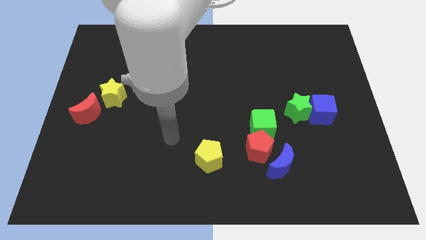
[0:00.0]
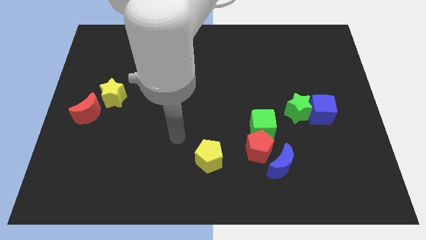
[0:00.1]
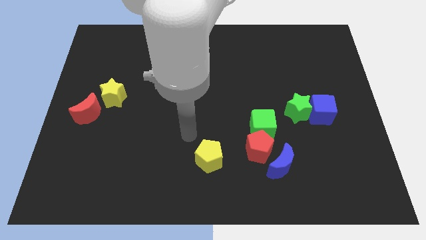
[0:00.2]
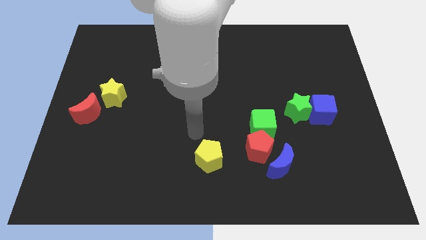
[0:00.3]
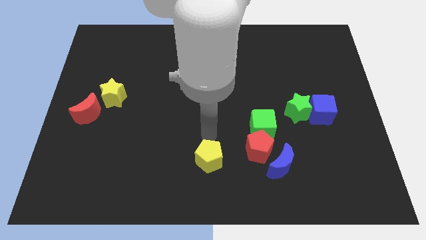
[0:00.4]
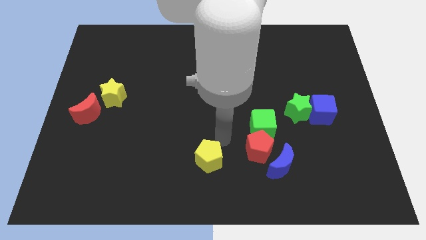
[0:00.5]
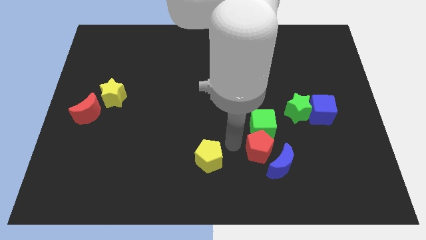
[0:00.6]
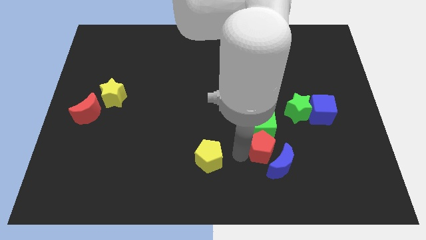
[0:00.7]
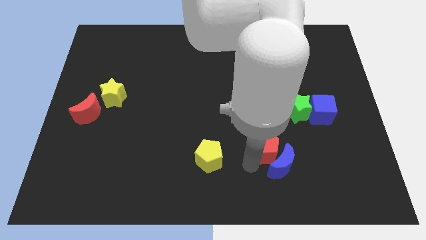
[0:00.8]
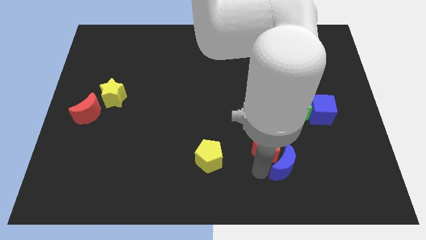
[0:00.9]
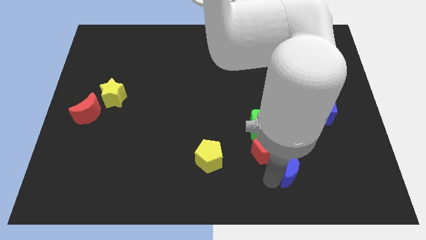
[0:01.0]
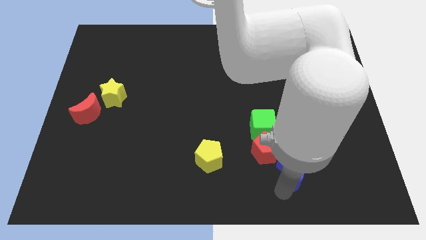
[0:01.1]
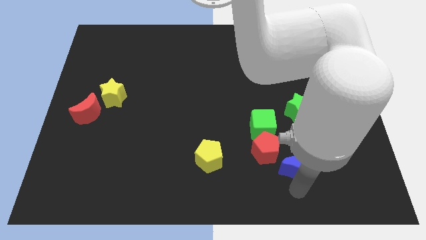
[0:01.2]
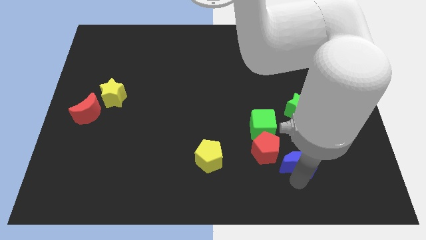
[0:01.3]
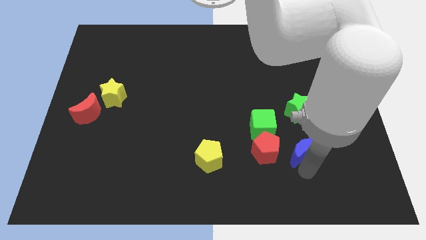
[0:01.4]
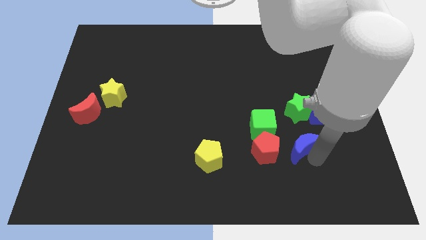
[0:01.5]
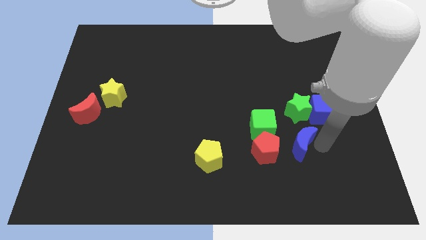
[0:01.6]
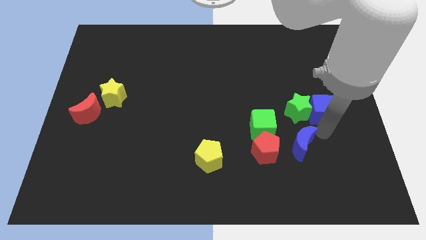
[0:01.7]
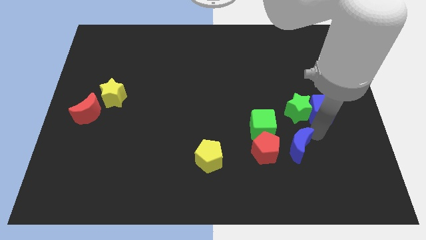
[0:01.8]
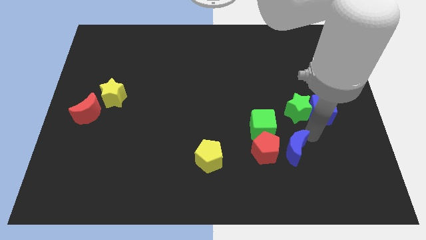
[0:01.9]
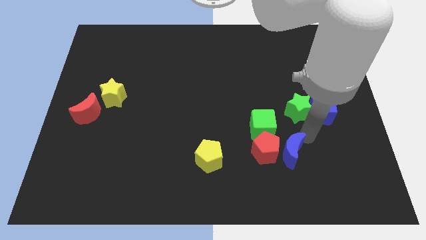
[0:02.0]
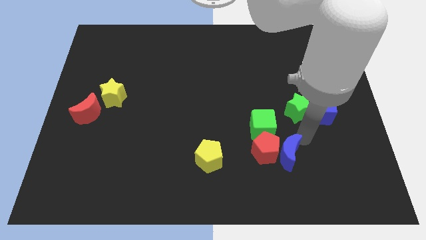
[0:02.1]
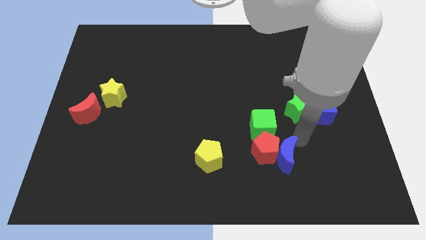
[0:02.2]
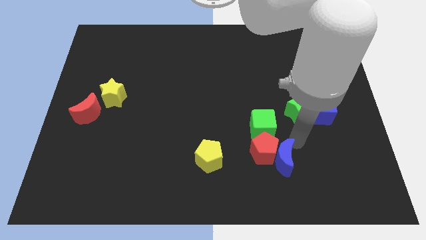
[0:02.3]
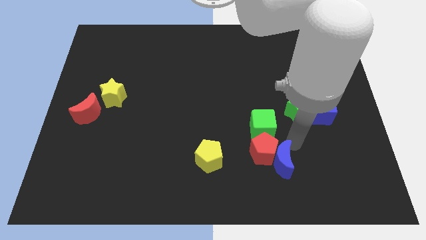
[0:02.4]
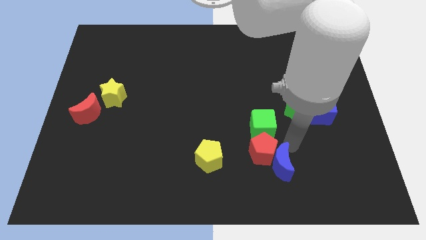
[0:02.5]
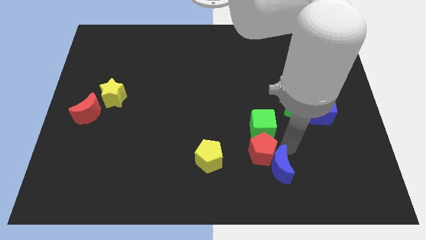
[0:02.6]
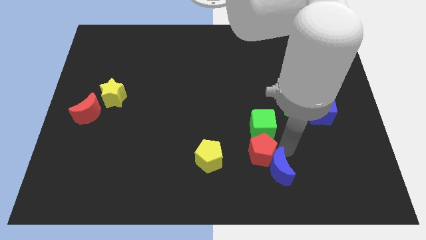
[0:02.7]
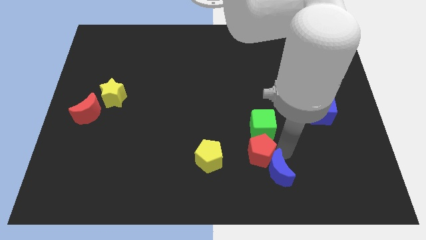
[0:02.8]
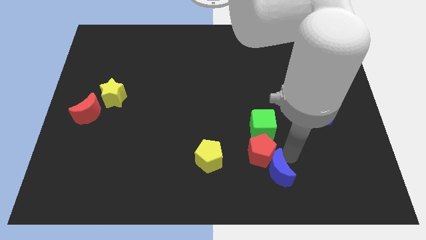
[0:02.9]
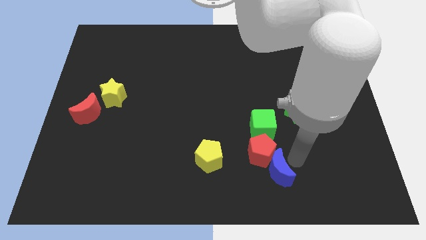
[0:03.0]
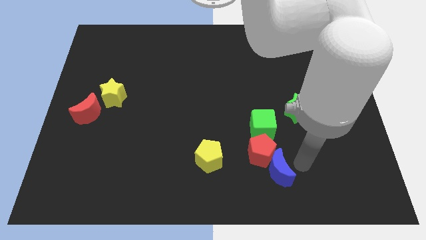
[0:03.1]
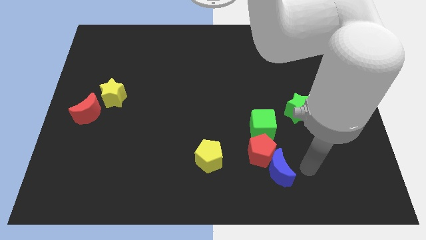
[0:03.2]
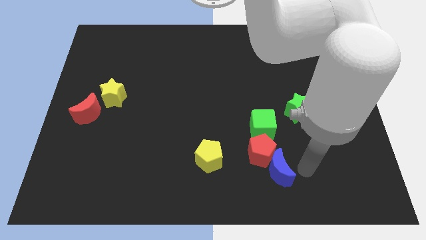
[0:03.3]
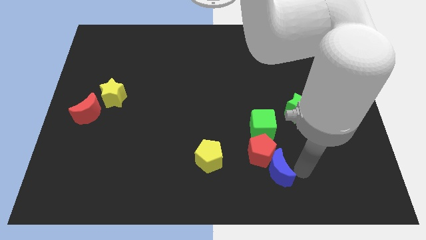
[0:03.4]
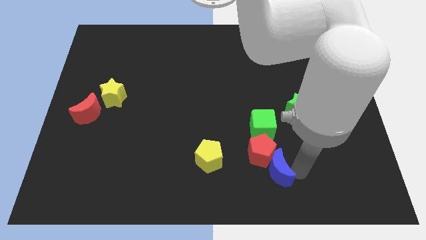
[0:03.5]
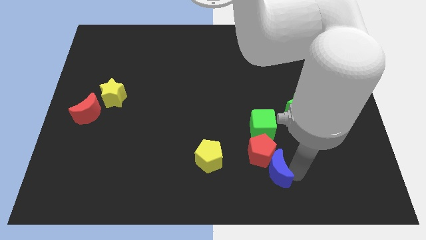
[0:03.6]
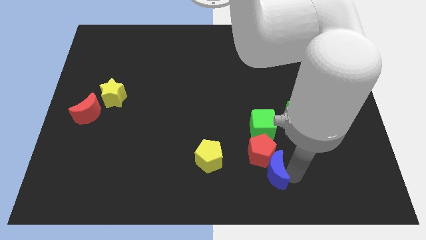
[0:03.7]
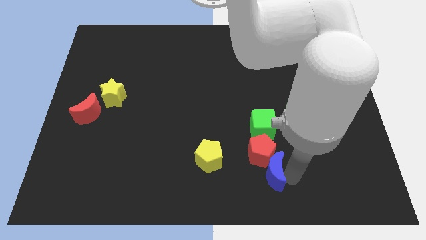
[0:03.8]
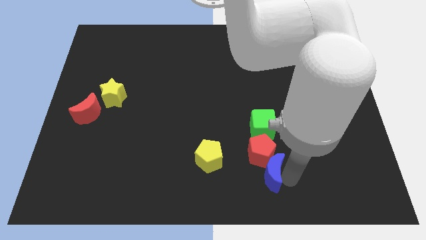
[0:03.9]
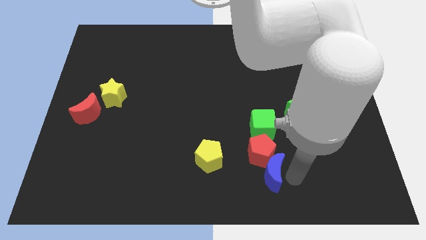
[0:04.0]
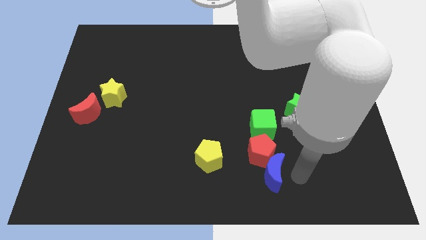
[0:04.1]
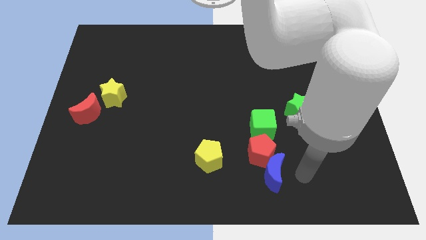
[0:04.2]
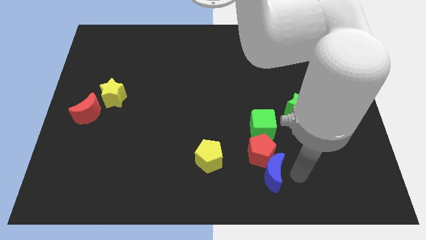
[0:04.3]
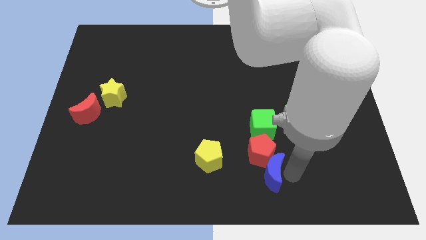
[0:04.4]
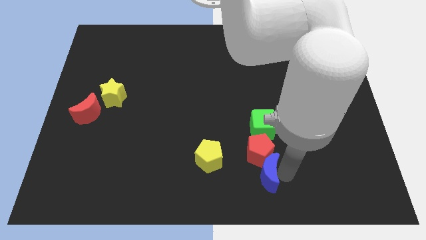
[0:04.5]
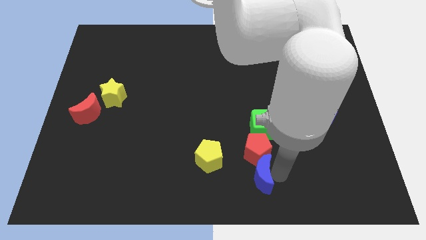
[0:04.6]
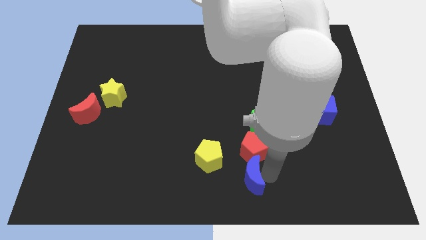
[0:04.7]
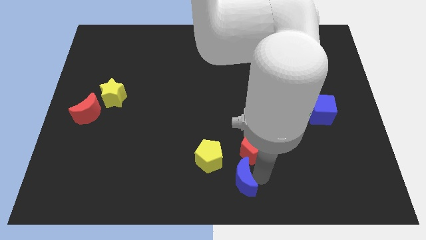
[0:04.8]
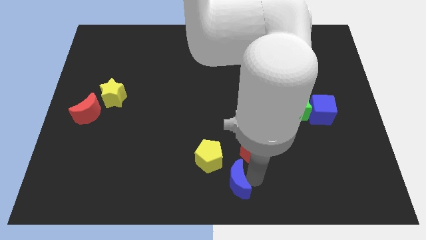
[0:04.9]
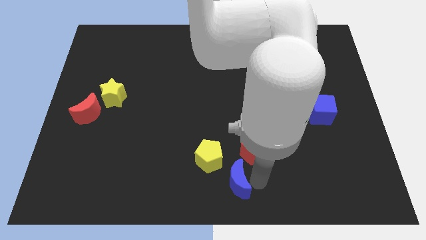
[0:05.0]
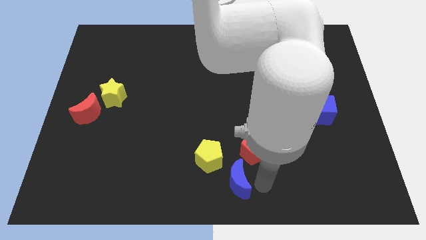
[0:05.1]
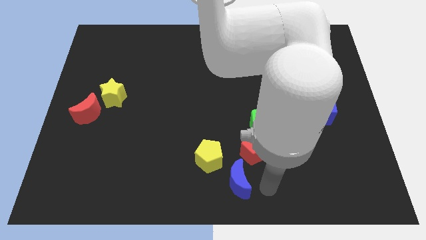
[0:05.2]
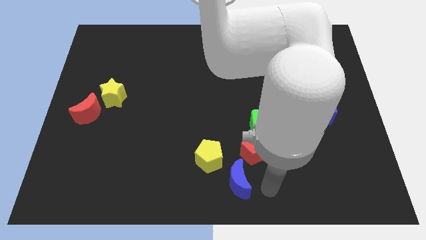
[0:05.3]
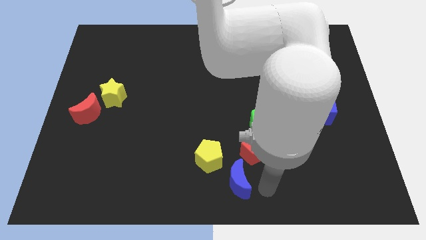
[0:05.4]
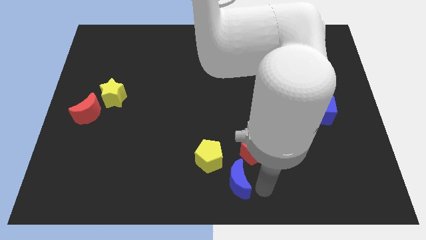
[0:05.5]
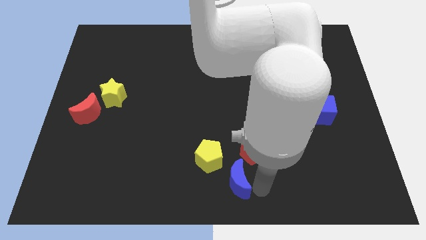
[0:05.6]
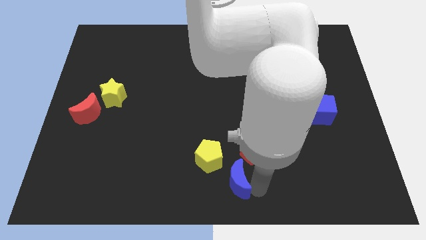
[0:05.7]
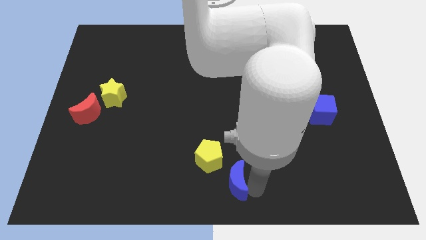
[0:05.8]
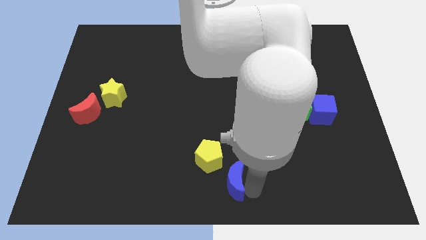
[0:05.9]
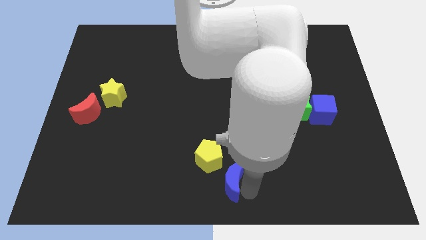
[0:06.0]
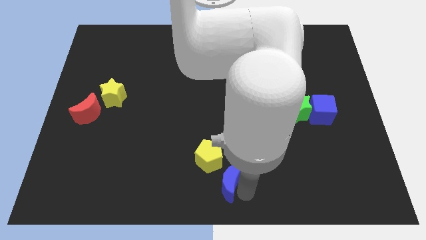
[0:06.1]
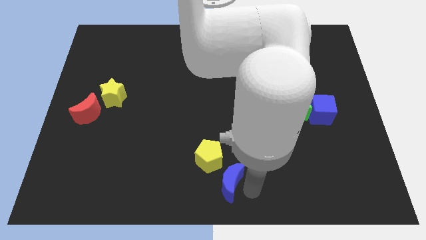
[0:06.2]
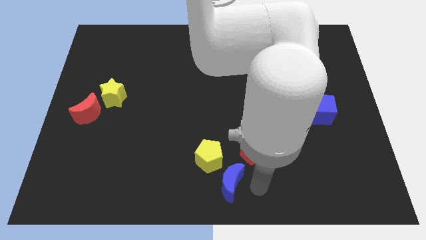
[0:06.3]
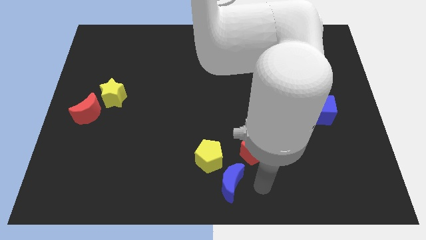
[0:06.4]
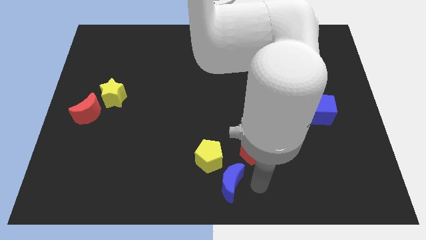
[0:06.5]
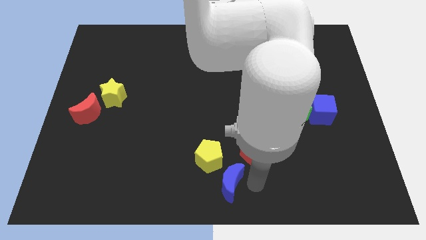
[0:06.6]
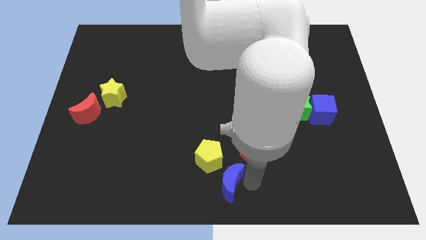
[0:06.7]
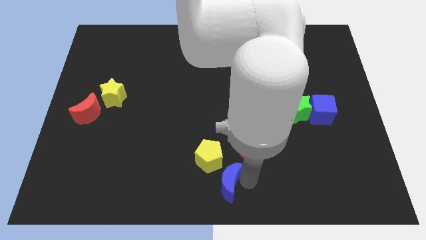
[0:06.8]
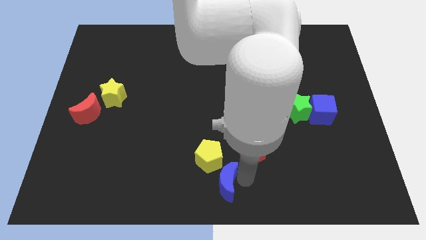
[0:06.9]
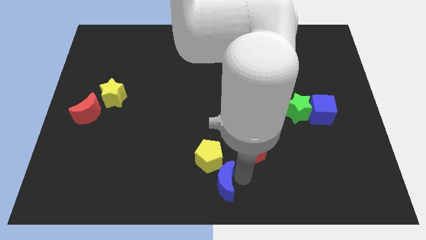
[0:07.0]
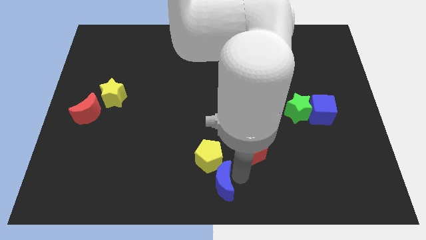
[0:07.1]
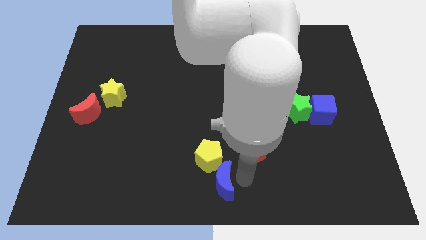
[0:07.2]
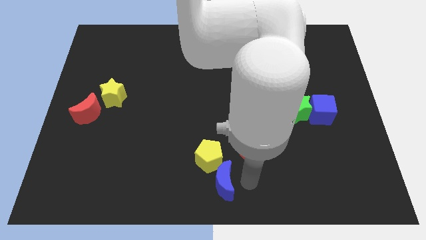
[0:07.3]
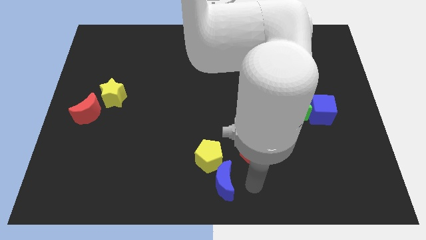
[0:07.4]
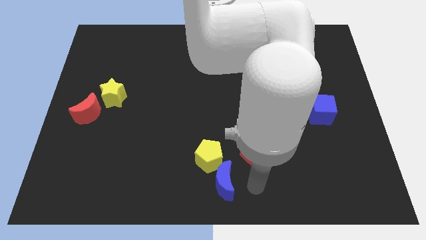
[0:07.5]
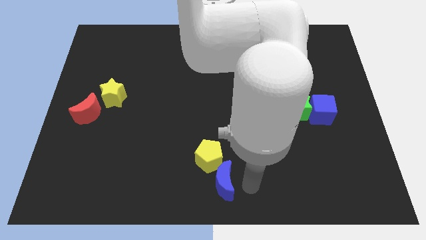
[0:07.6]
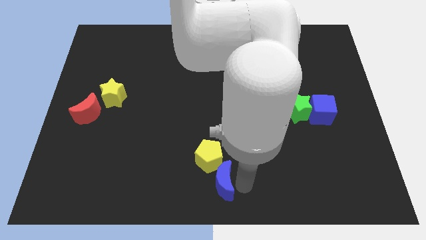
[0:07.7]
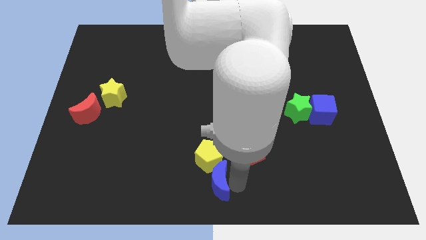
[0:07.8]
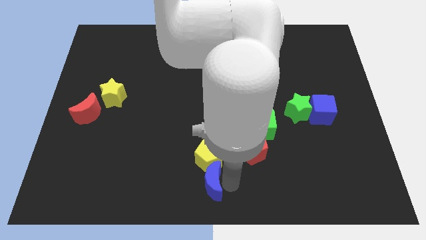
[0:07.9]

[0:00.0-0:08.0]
slide the blue moon to the bottom left side of the yellow pentagon
